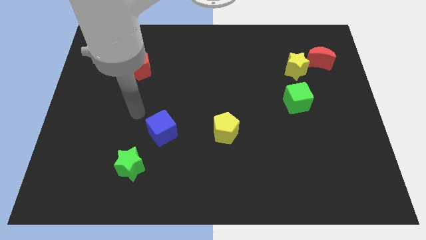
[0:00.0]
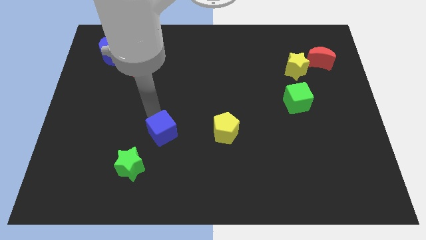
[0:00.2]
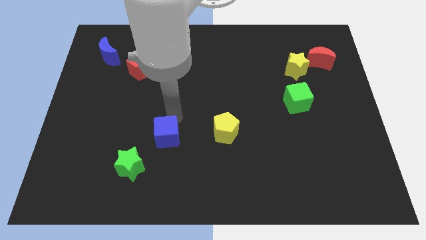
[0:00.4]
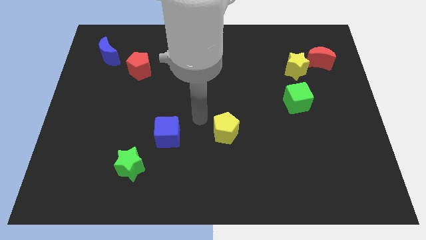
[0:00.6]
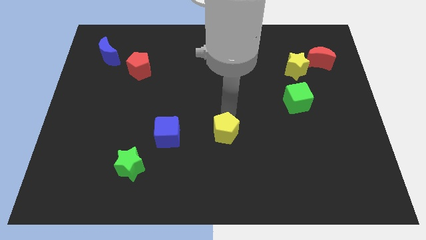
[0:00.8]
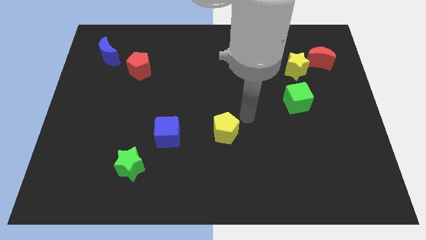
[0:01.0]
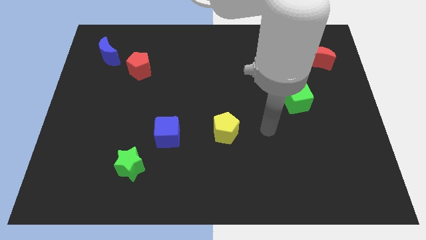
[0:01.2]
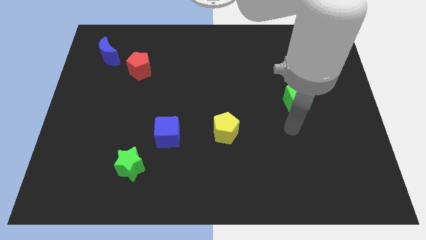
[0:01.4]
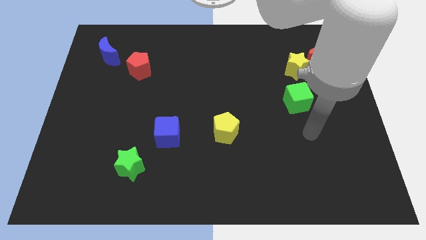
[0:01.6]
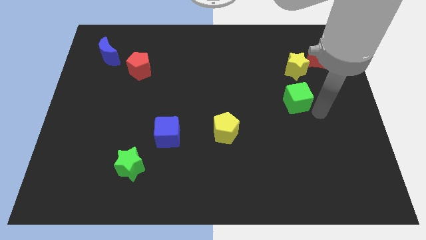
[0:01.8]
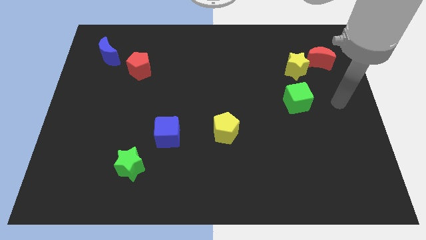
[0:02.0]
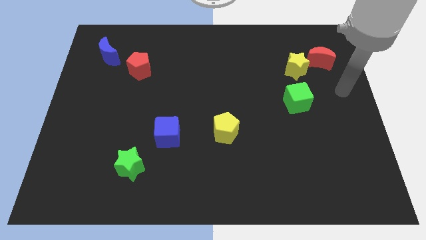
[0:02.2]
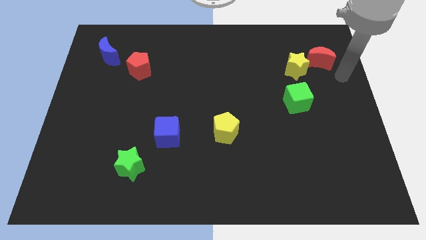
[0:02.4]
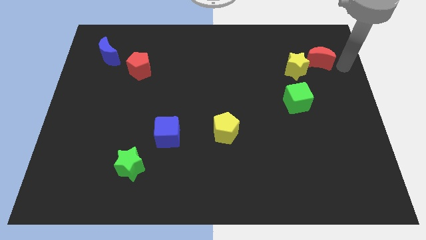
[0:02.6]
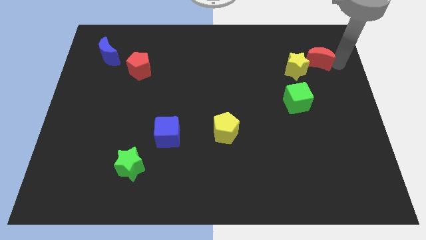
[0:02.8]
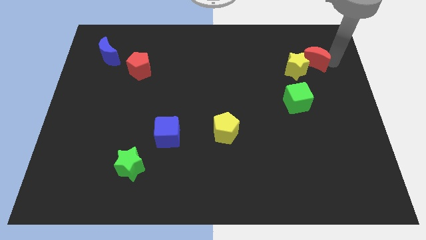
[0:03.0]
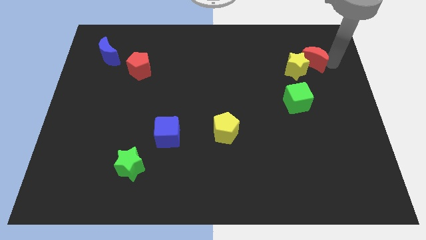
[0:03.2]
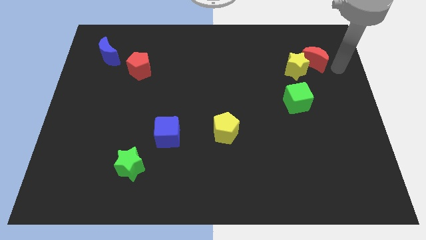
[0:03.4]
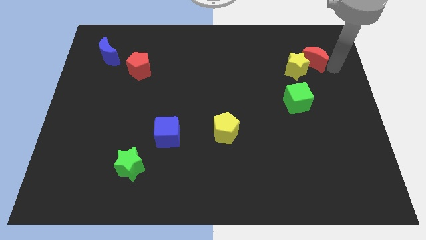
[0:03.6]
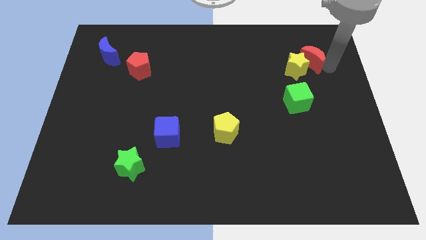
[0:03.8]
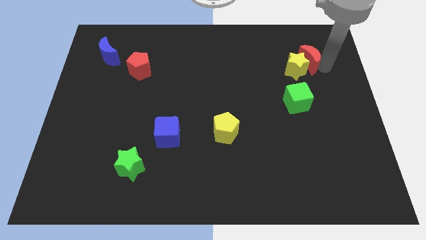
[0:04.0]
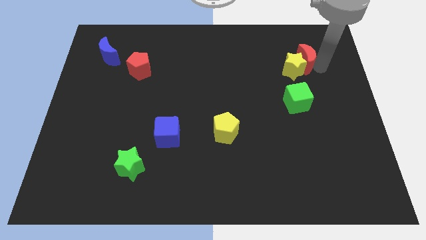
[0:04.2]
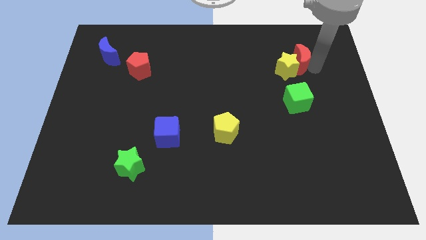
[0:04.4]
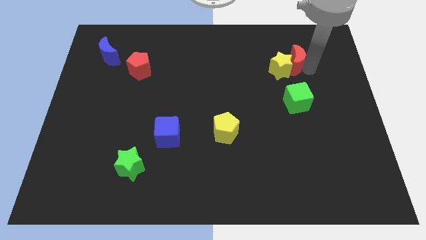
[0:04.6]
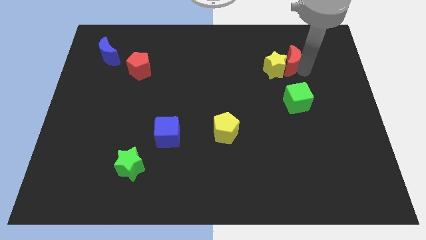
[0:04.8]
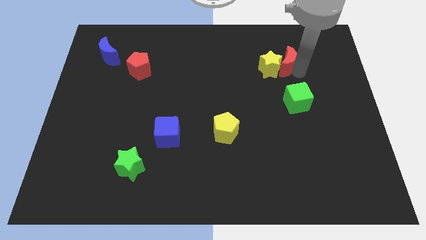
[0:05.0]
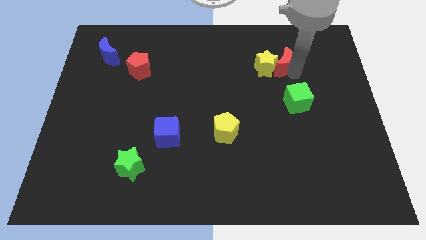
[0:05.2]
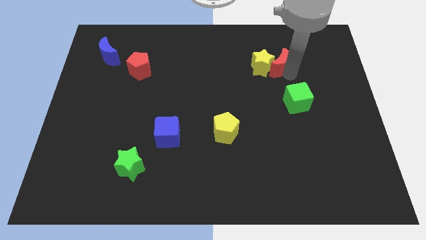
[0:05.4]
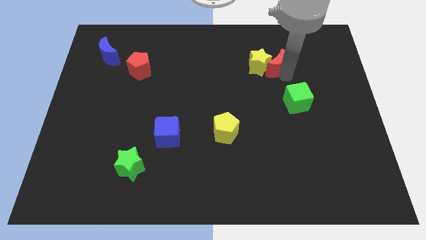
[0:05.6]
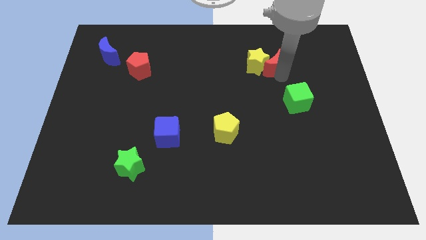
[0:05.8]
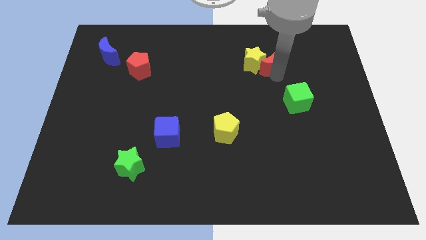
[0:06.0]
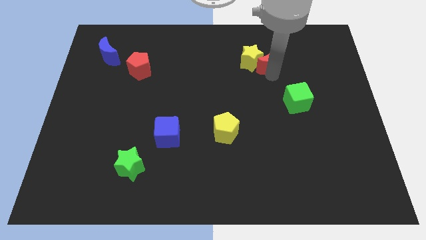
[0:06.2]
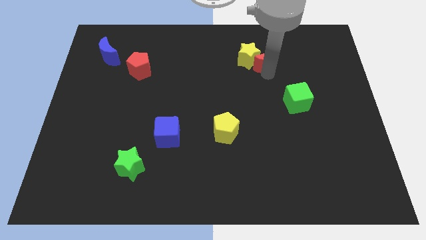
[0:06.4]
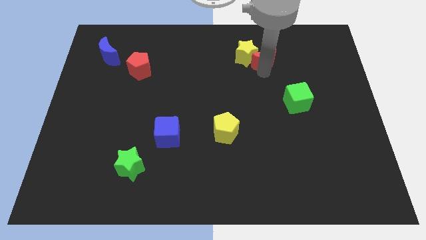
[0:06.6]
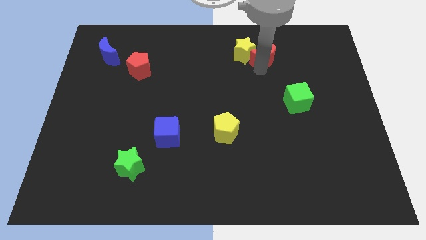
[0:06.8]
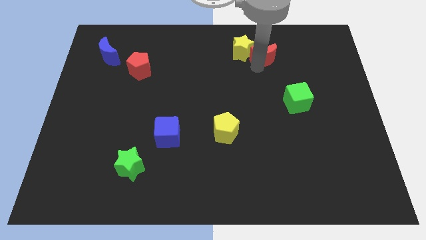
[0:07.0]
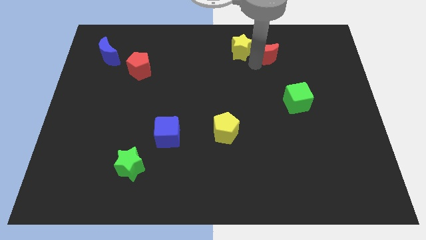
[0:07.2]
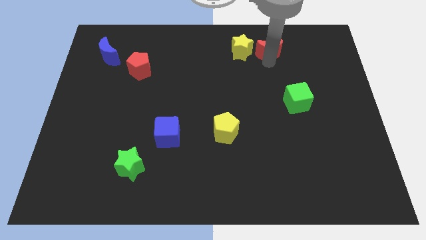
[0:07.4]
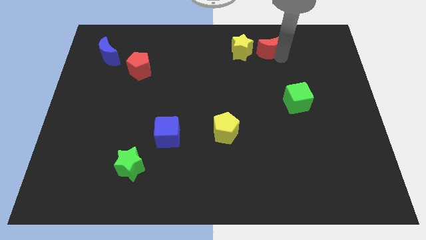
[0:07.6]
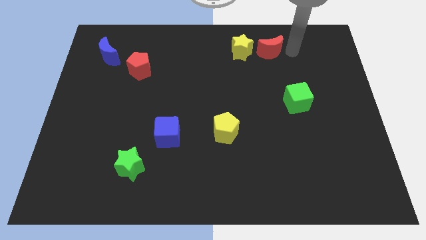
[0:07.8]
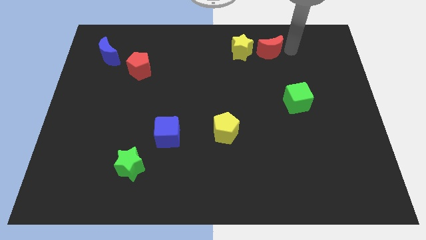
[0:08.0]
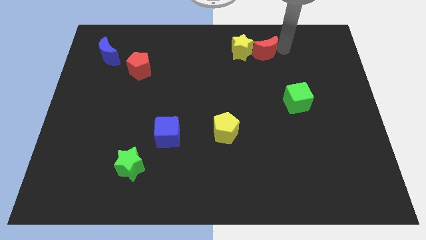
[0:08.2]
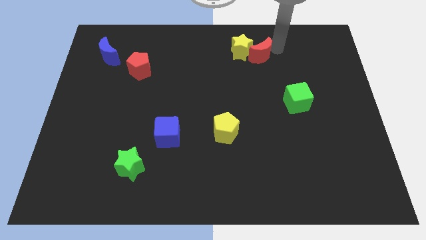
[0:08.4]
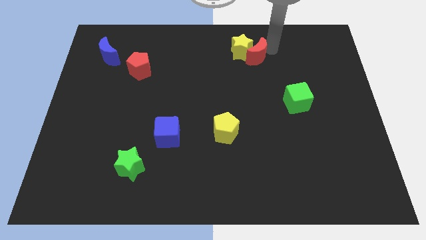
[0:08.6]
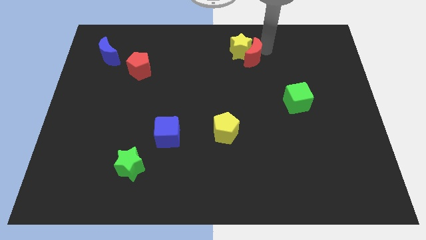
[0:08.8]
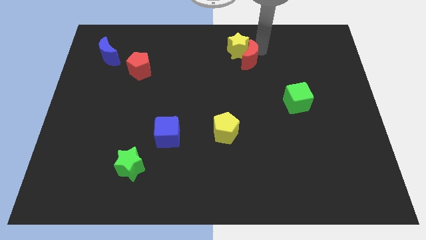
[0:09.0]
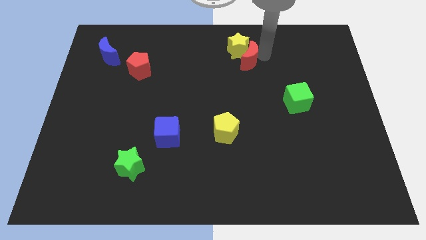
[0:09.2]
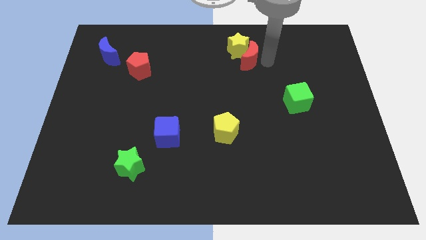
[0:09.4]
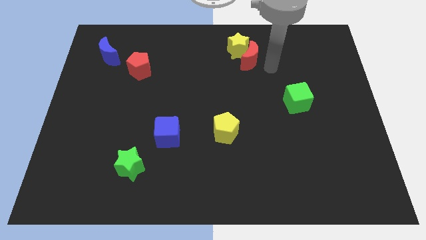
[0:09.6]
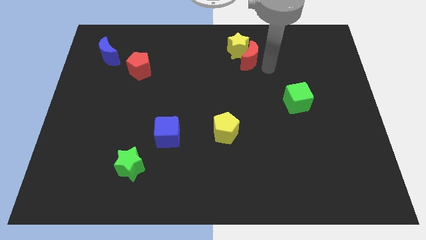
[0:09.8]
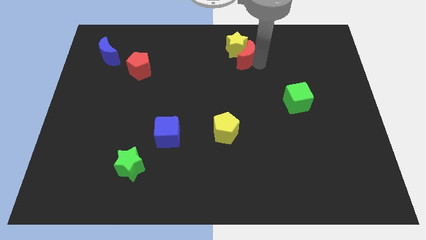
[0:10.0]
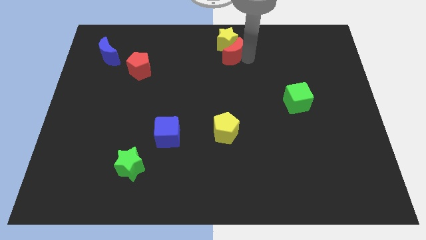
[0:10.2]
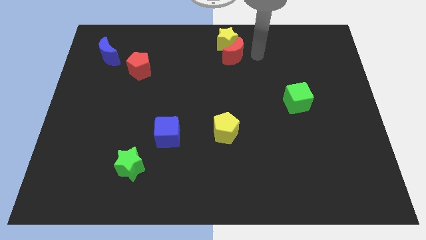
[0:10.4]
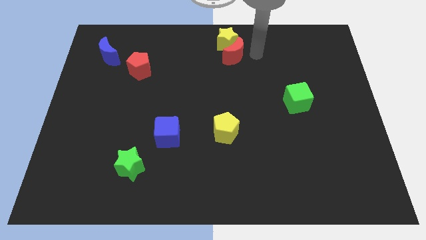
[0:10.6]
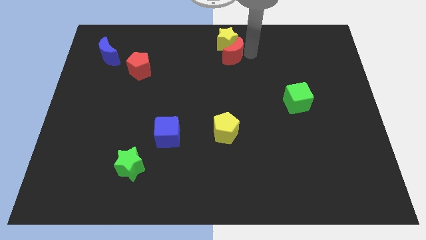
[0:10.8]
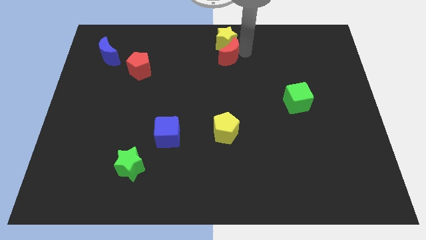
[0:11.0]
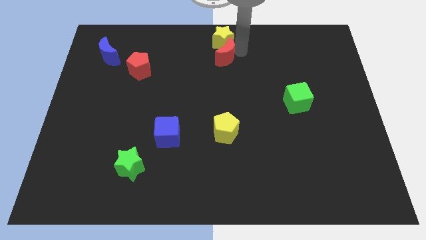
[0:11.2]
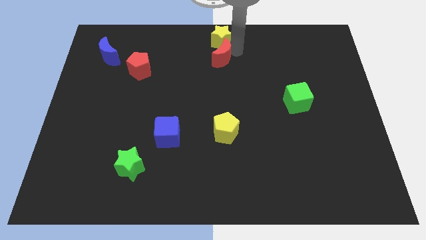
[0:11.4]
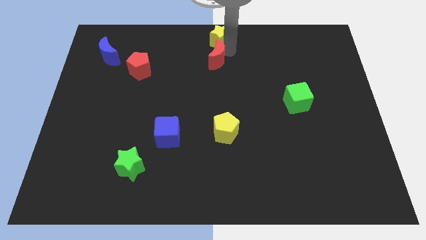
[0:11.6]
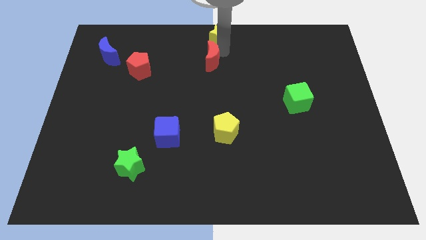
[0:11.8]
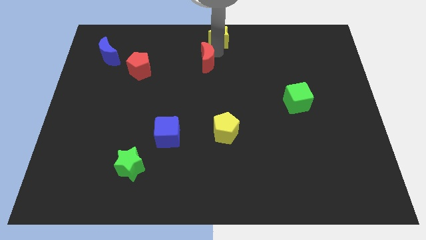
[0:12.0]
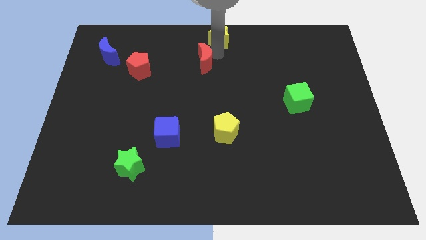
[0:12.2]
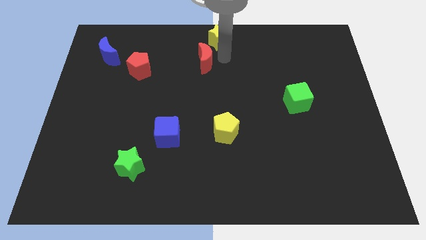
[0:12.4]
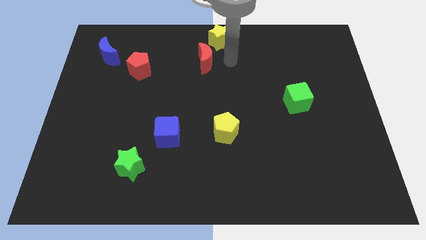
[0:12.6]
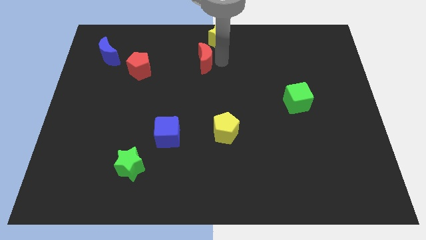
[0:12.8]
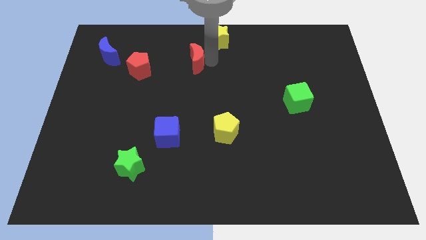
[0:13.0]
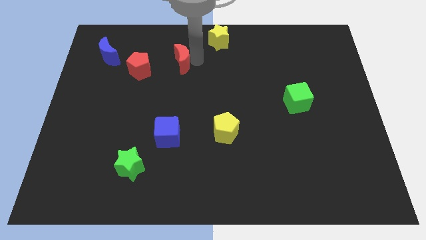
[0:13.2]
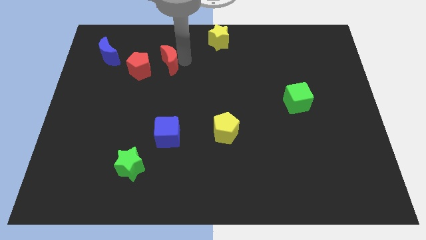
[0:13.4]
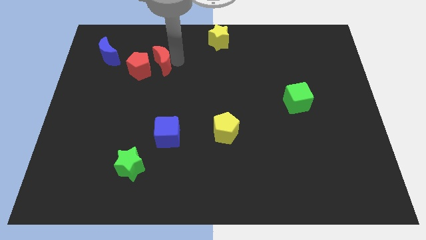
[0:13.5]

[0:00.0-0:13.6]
slide the red moon to the red pentagon
